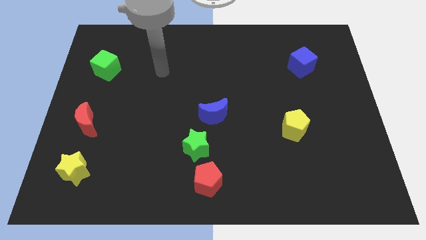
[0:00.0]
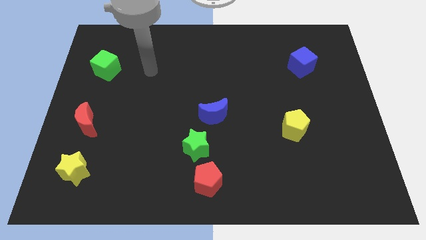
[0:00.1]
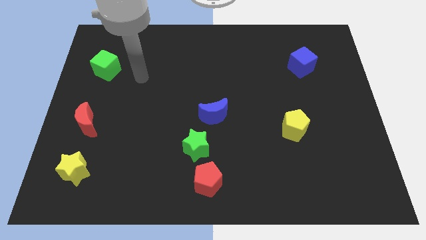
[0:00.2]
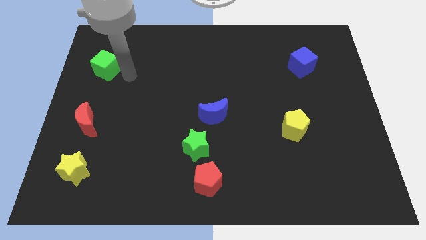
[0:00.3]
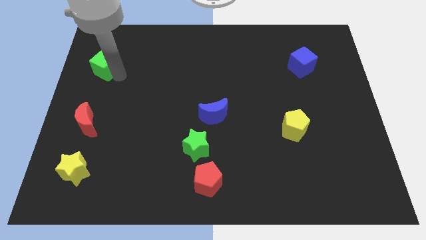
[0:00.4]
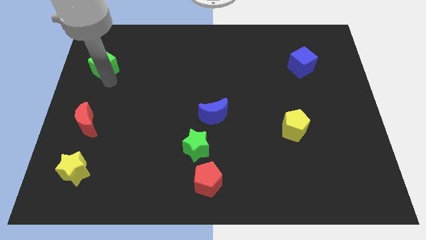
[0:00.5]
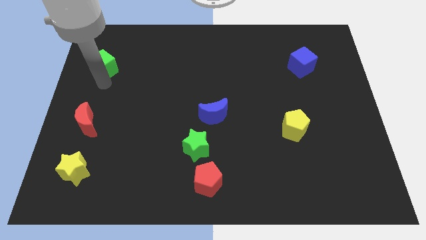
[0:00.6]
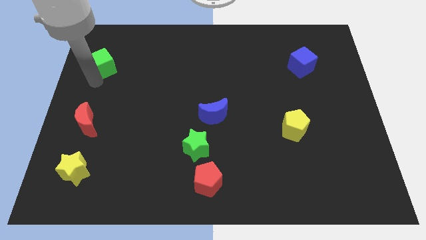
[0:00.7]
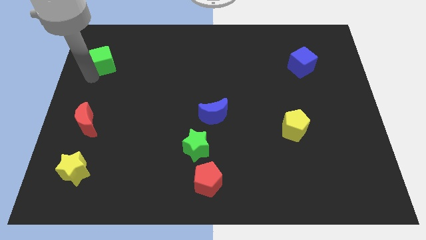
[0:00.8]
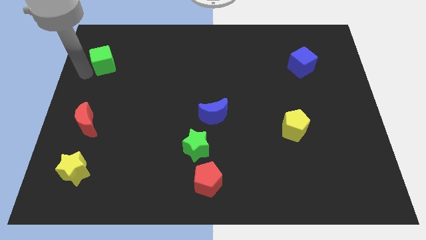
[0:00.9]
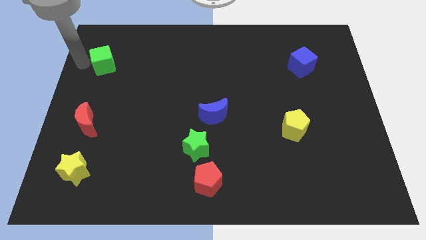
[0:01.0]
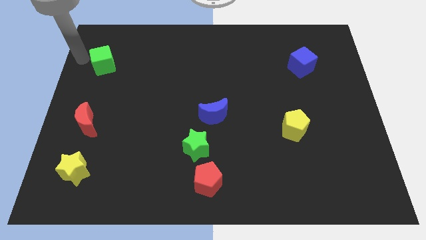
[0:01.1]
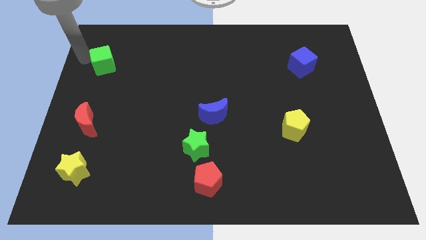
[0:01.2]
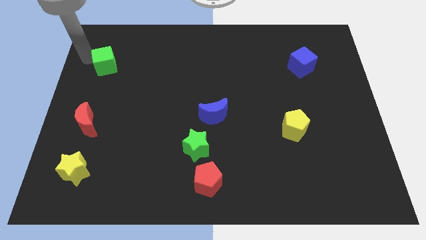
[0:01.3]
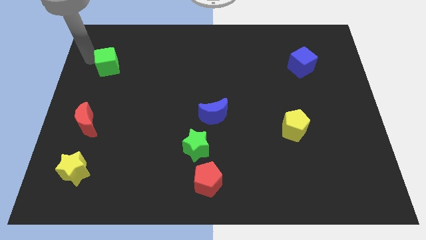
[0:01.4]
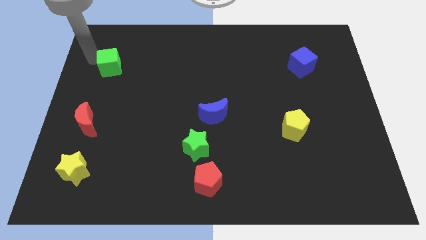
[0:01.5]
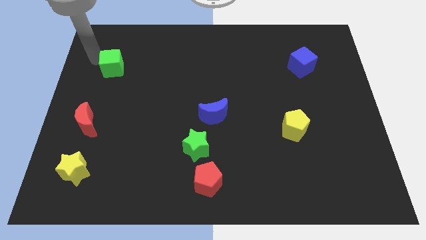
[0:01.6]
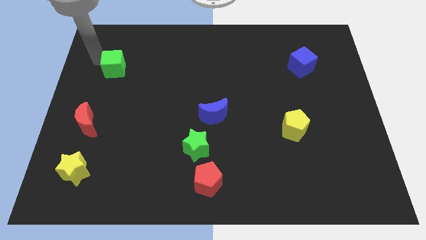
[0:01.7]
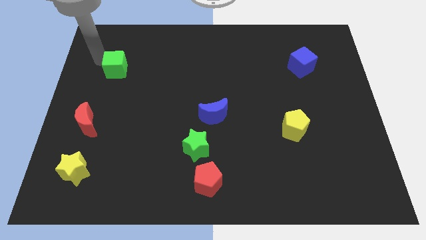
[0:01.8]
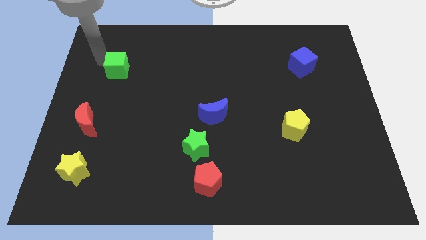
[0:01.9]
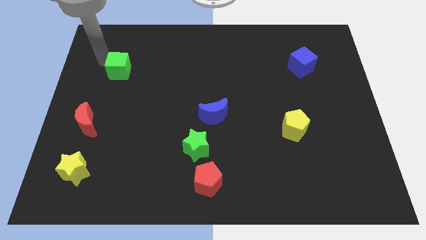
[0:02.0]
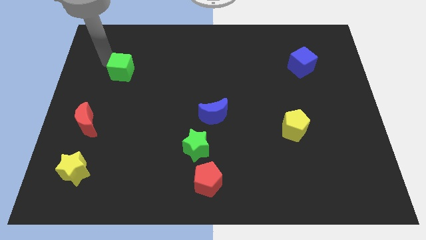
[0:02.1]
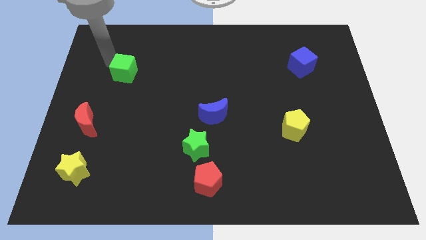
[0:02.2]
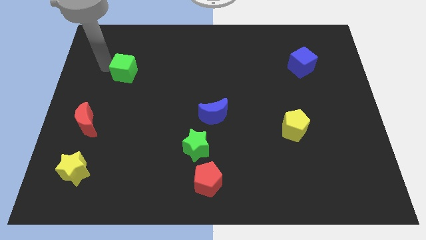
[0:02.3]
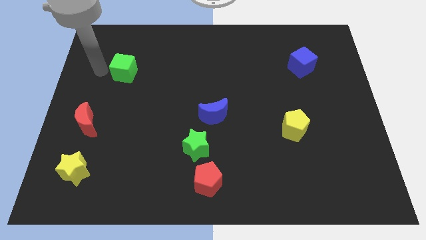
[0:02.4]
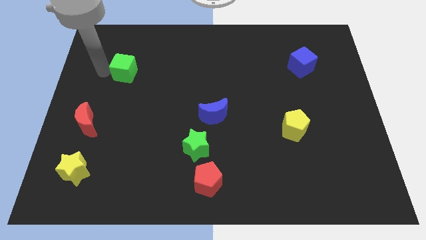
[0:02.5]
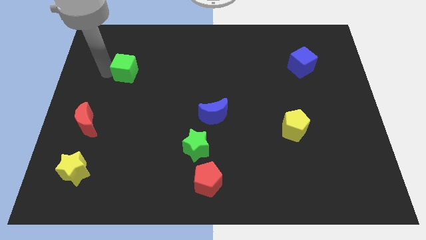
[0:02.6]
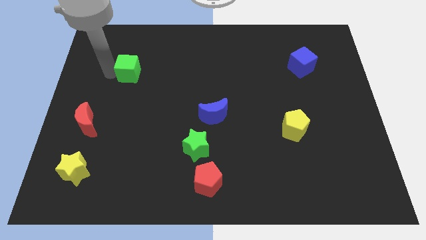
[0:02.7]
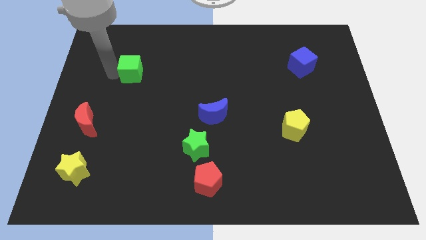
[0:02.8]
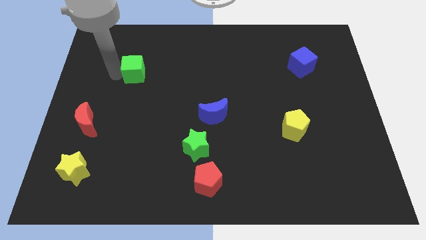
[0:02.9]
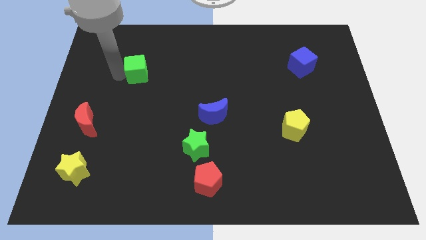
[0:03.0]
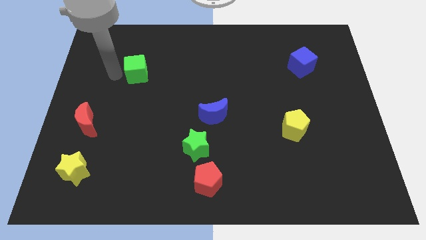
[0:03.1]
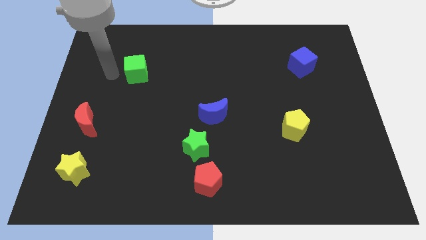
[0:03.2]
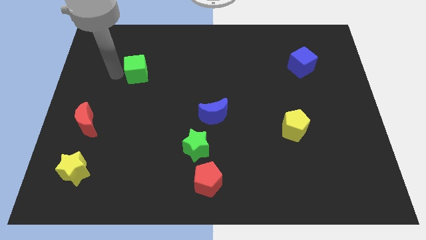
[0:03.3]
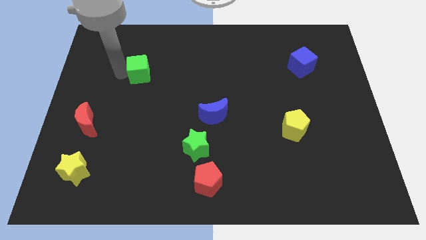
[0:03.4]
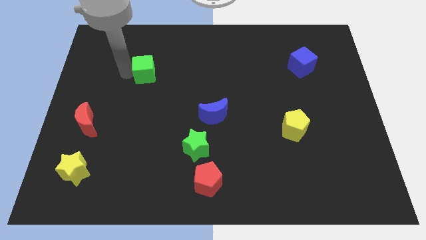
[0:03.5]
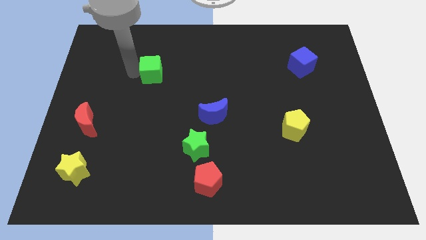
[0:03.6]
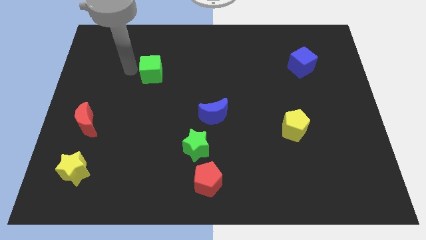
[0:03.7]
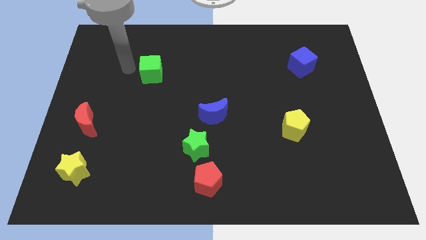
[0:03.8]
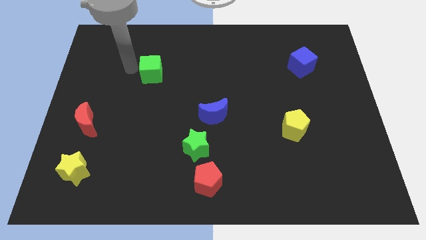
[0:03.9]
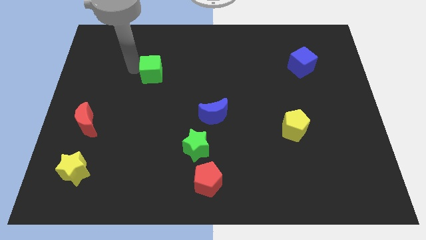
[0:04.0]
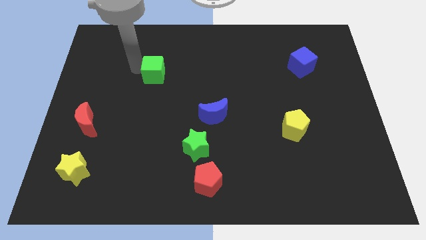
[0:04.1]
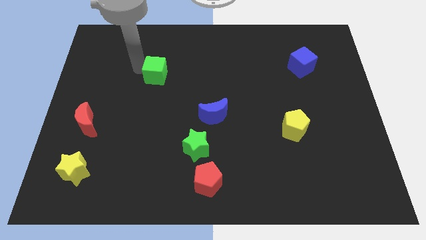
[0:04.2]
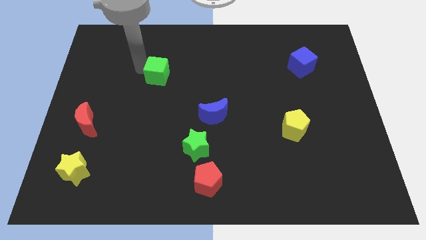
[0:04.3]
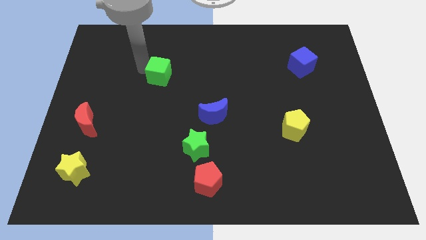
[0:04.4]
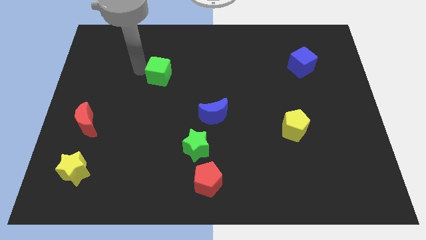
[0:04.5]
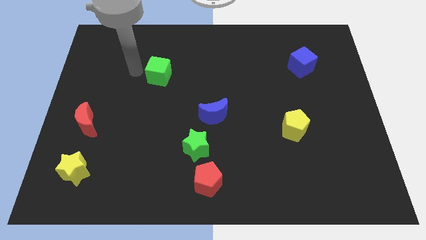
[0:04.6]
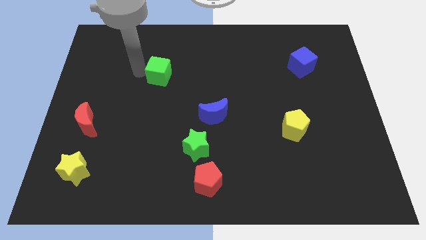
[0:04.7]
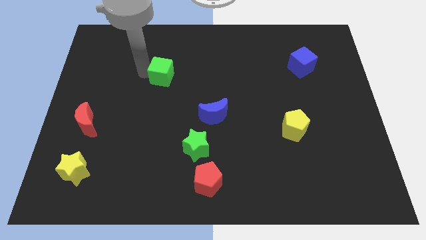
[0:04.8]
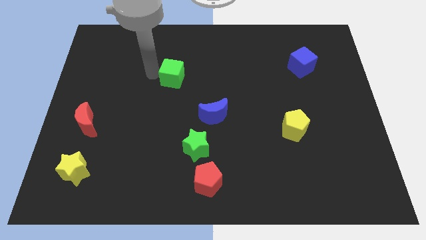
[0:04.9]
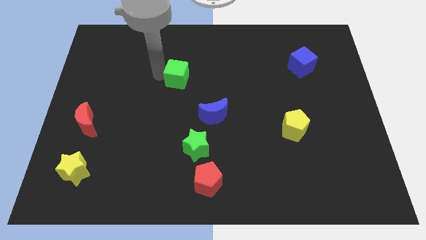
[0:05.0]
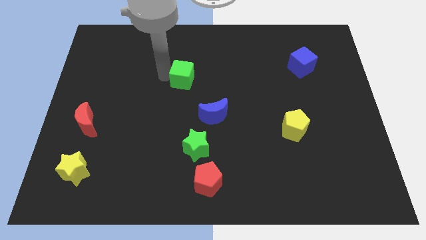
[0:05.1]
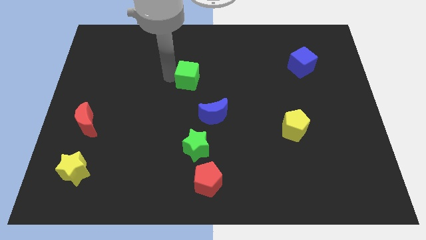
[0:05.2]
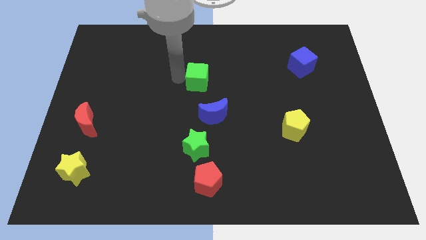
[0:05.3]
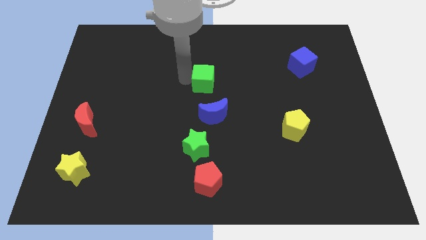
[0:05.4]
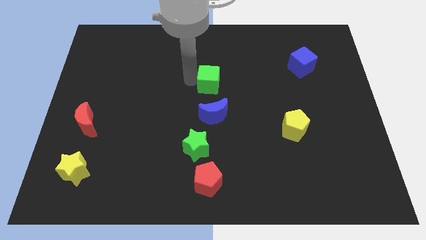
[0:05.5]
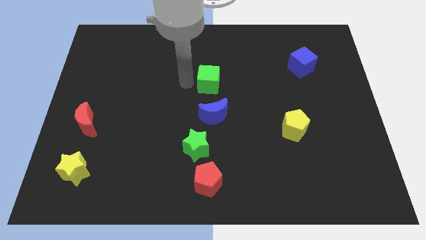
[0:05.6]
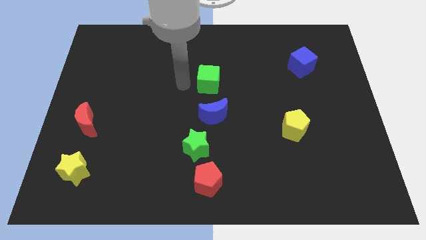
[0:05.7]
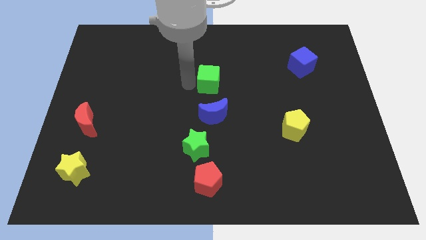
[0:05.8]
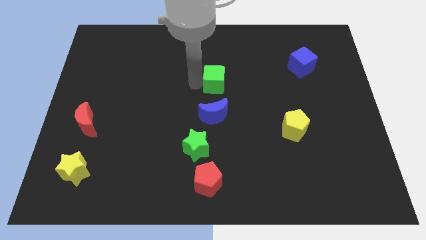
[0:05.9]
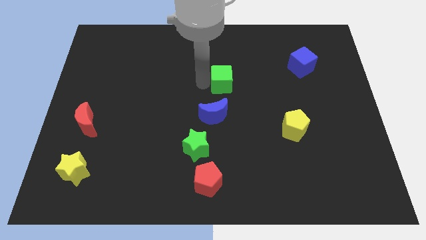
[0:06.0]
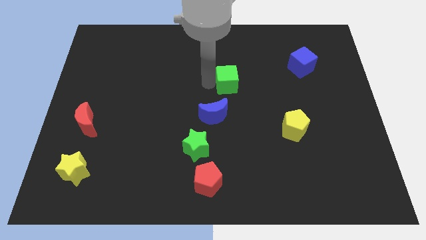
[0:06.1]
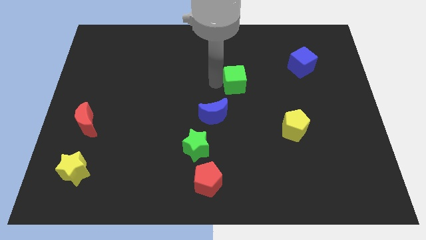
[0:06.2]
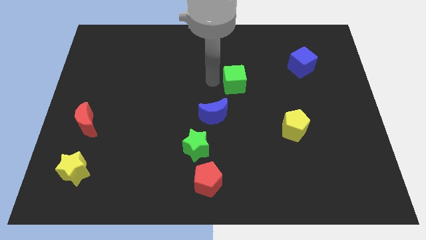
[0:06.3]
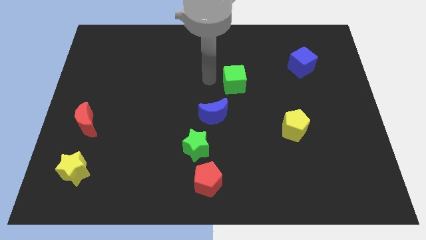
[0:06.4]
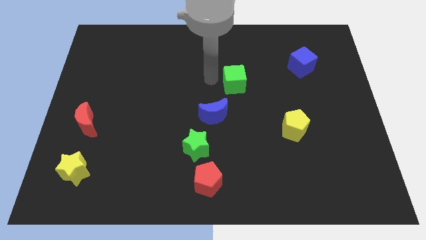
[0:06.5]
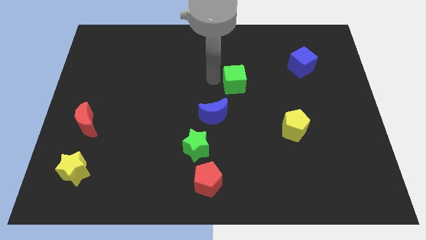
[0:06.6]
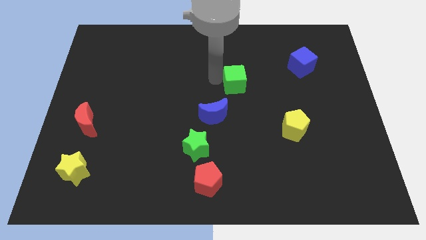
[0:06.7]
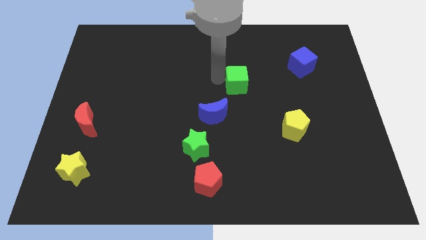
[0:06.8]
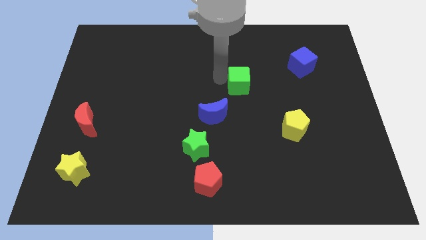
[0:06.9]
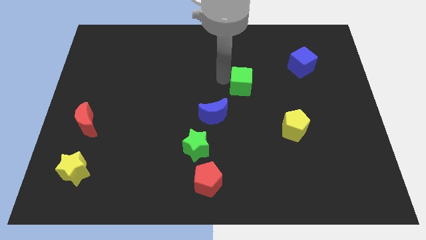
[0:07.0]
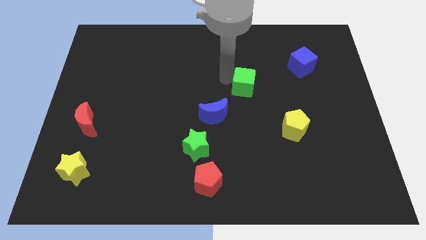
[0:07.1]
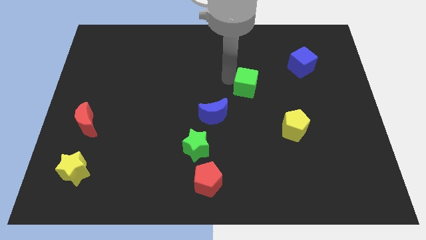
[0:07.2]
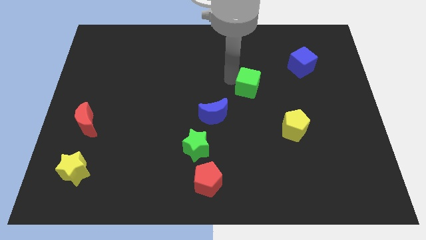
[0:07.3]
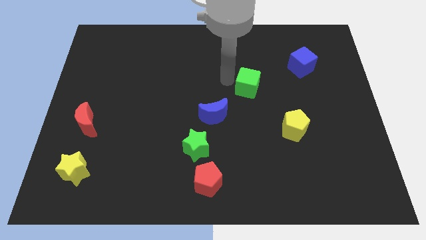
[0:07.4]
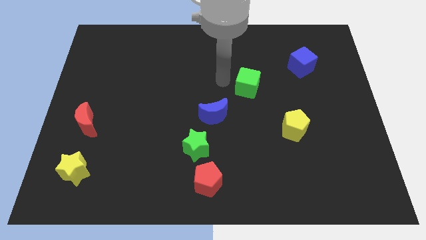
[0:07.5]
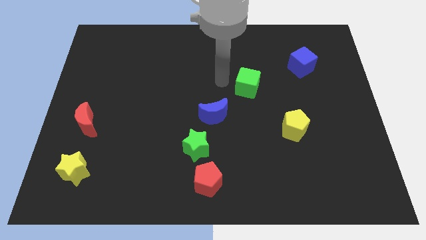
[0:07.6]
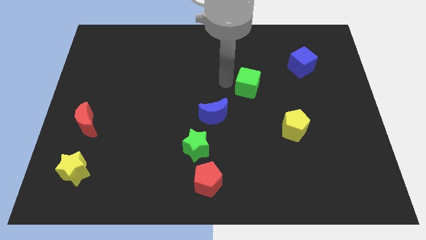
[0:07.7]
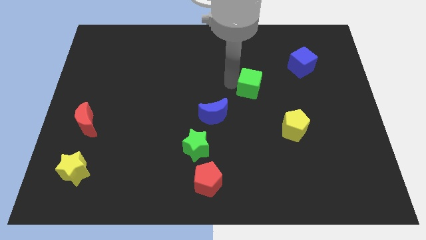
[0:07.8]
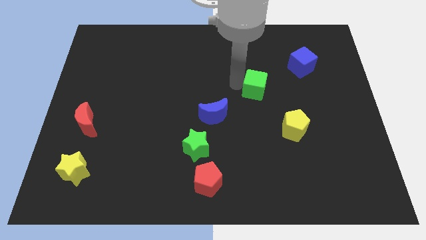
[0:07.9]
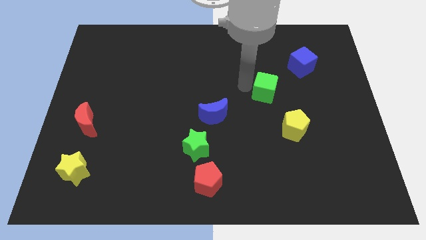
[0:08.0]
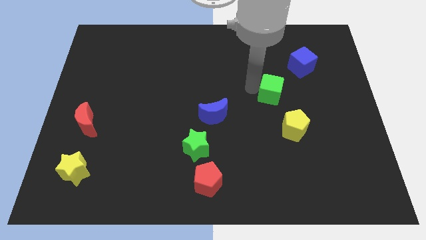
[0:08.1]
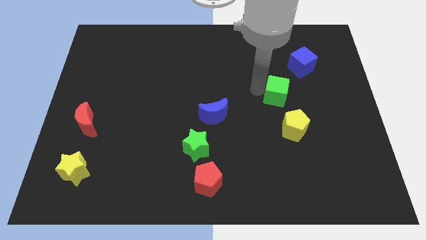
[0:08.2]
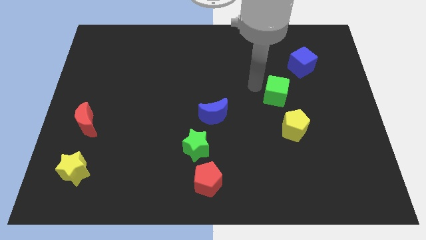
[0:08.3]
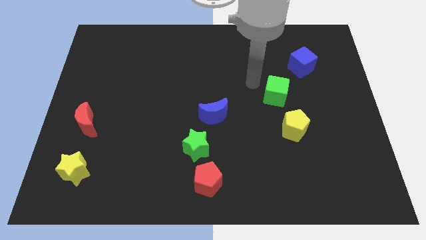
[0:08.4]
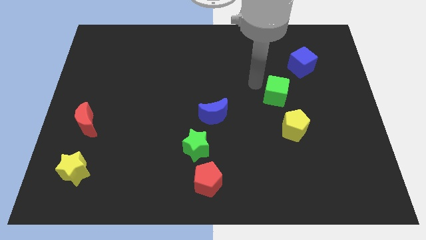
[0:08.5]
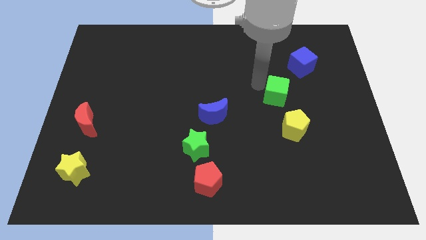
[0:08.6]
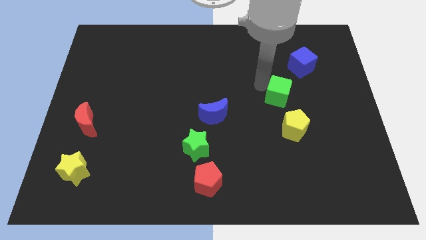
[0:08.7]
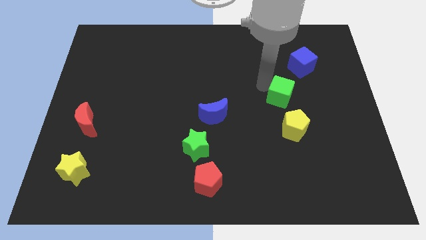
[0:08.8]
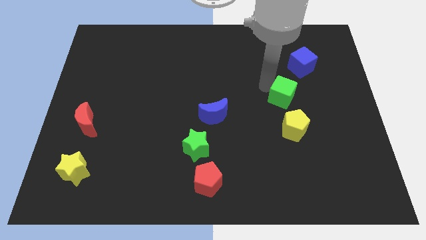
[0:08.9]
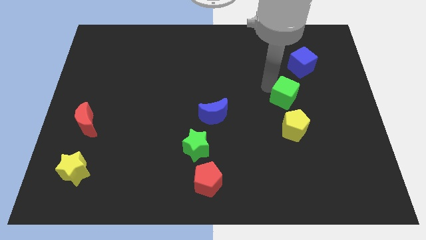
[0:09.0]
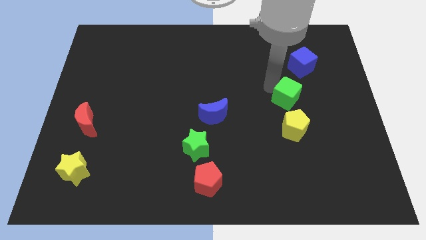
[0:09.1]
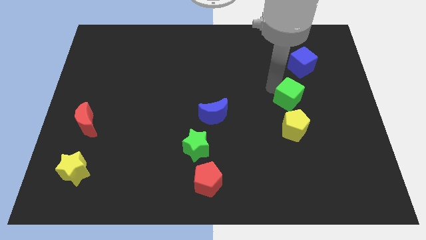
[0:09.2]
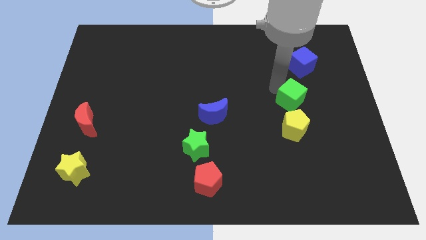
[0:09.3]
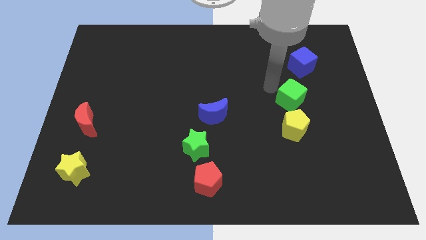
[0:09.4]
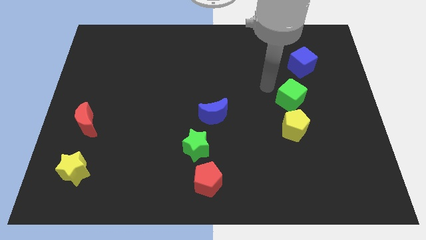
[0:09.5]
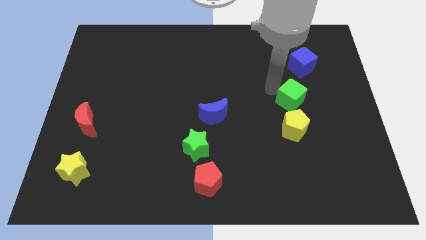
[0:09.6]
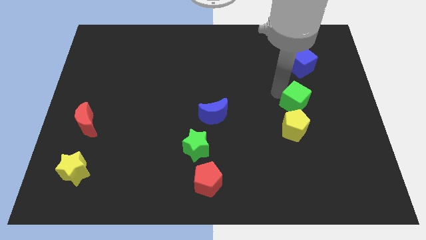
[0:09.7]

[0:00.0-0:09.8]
slide the green cube diagonally up and to the right of the yellow pentagon
